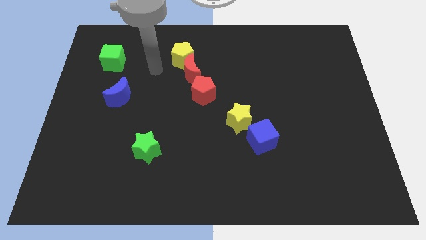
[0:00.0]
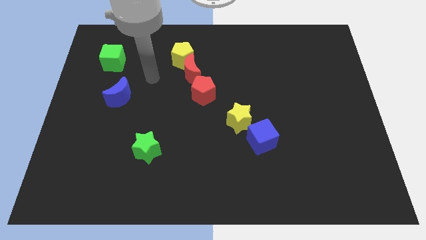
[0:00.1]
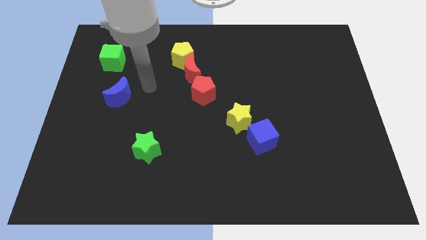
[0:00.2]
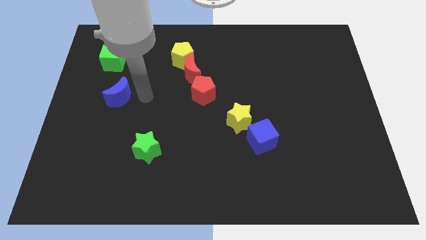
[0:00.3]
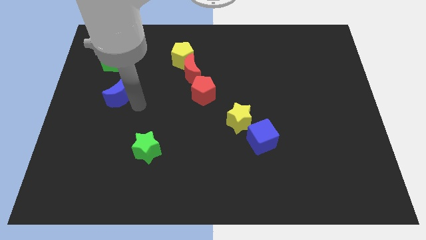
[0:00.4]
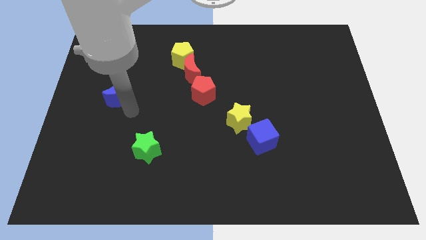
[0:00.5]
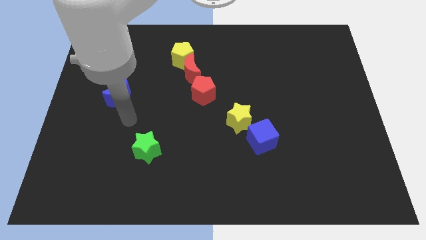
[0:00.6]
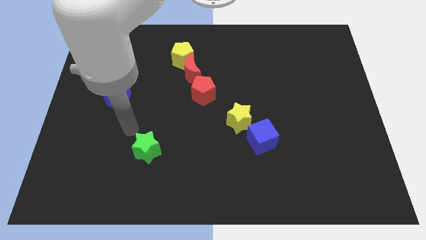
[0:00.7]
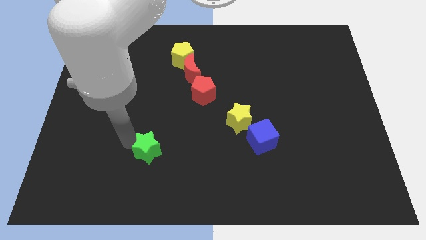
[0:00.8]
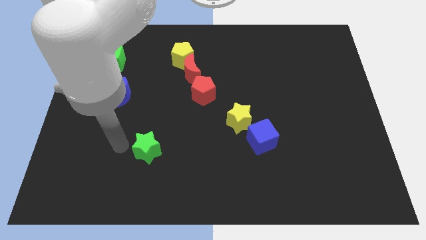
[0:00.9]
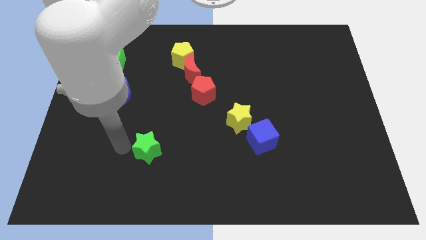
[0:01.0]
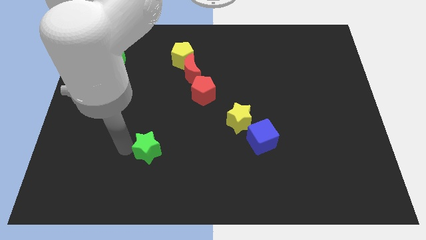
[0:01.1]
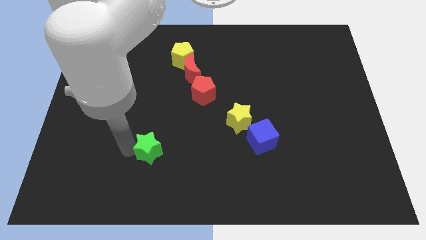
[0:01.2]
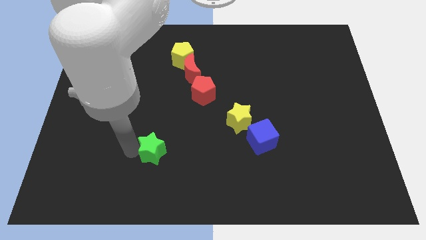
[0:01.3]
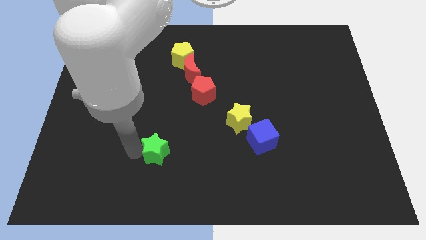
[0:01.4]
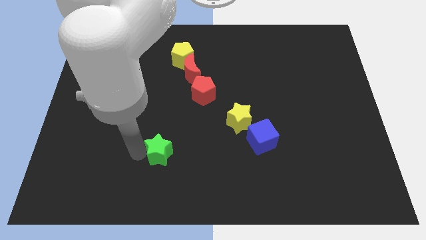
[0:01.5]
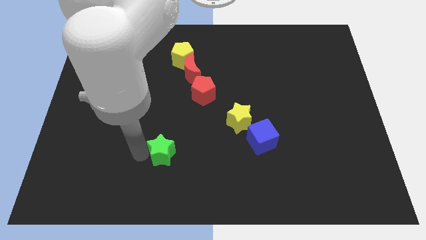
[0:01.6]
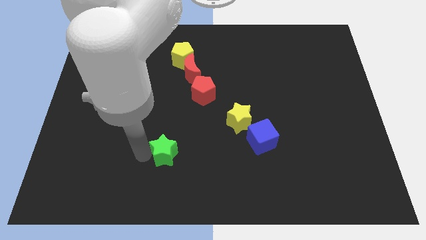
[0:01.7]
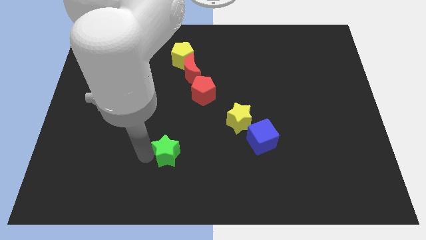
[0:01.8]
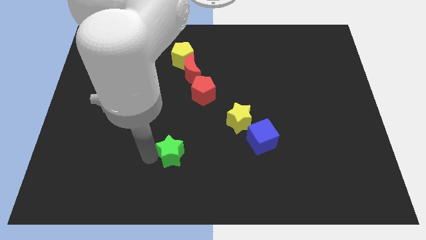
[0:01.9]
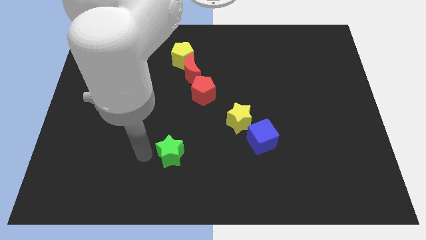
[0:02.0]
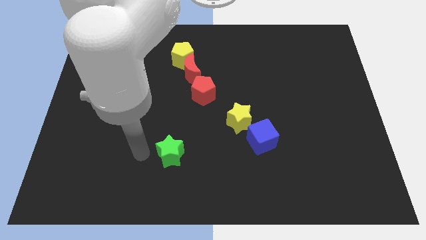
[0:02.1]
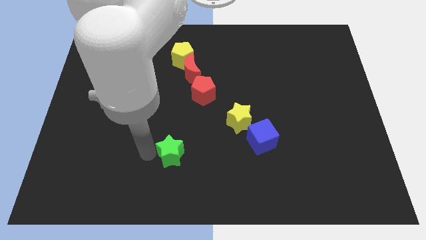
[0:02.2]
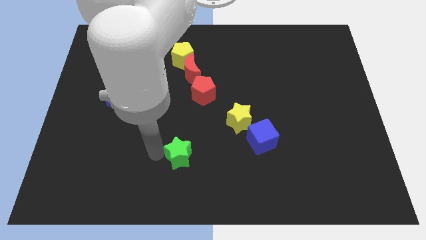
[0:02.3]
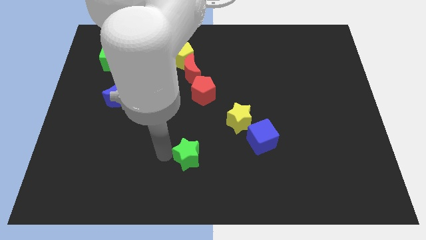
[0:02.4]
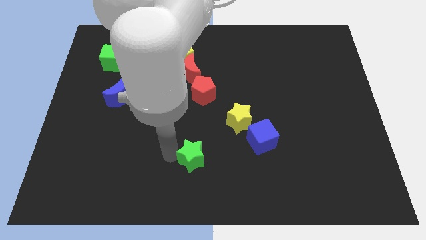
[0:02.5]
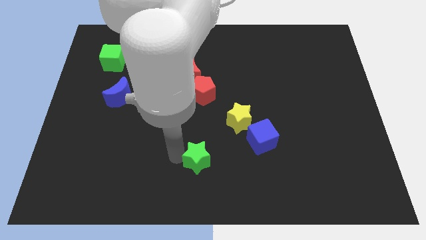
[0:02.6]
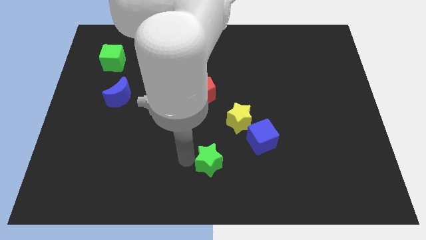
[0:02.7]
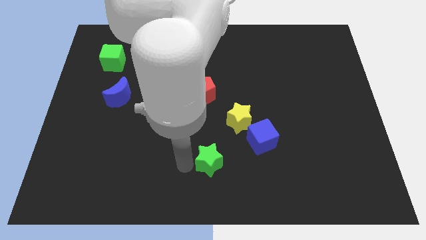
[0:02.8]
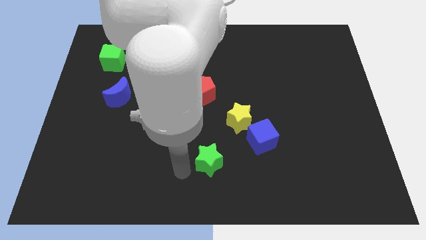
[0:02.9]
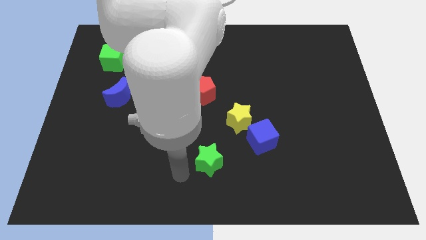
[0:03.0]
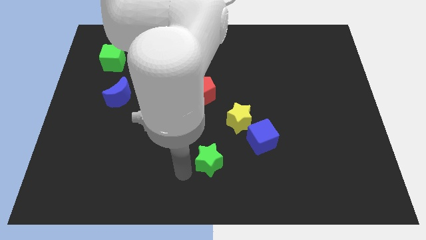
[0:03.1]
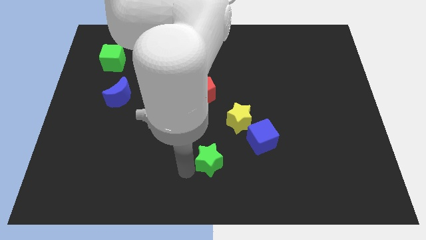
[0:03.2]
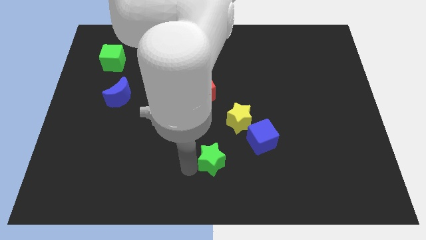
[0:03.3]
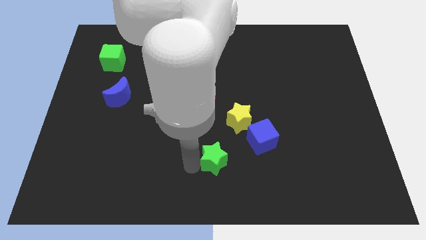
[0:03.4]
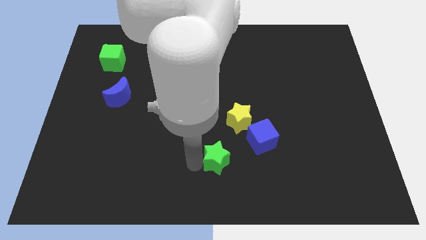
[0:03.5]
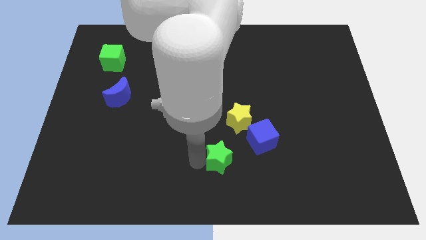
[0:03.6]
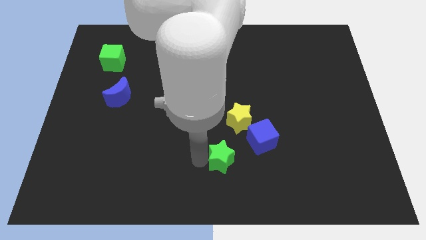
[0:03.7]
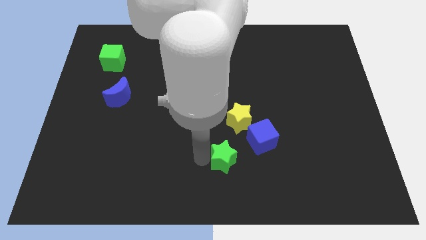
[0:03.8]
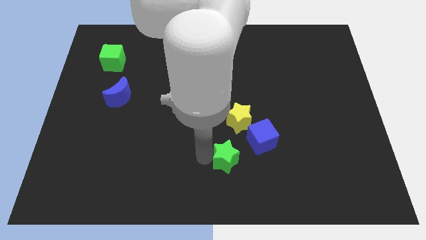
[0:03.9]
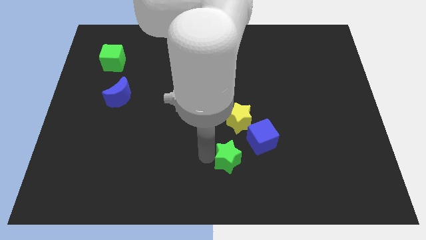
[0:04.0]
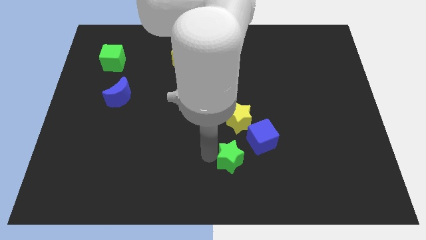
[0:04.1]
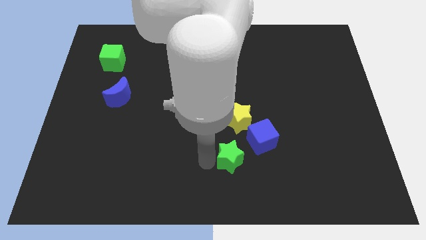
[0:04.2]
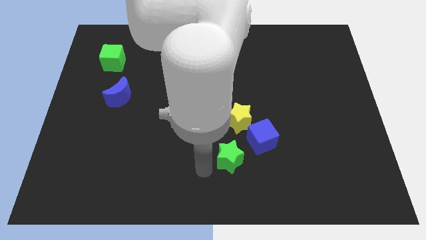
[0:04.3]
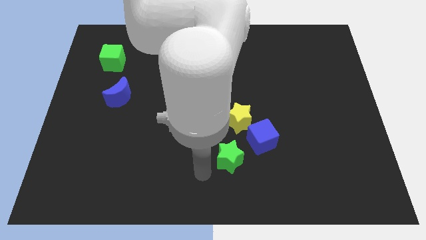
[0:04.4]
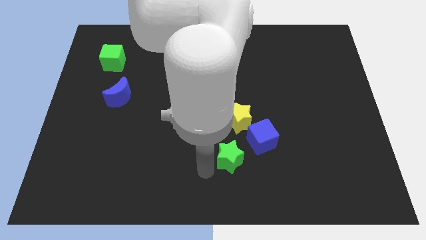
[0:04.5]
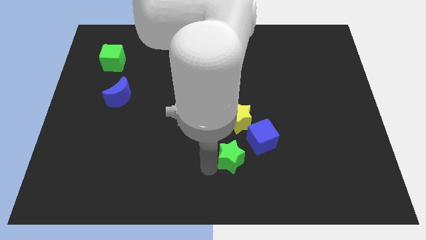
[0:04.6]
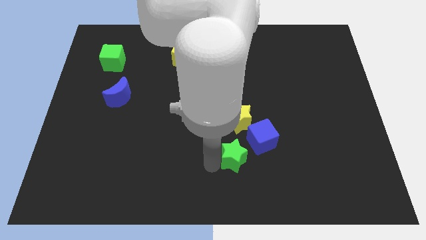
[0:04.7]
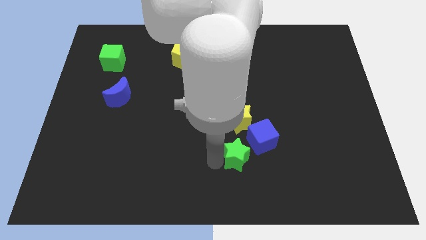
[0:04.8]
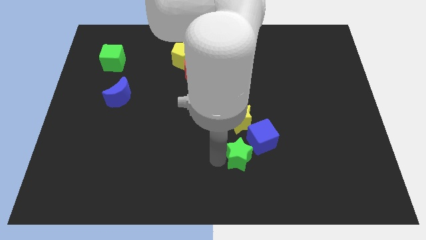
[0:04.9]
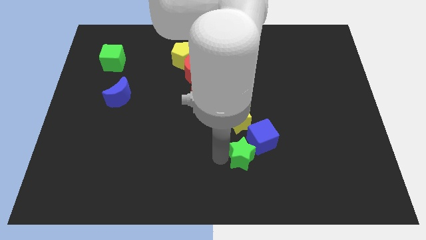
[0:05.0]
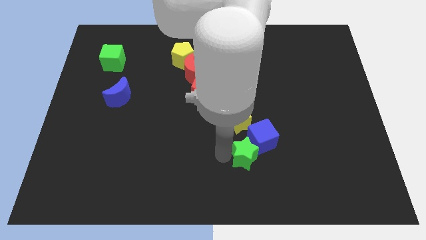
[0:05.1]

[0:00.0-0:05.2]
put the green star next to the blue cube

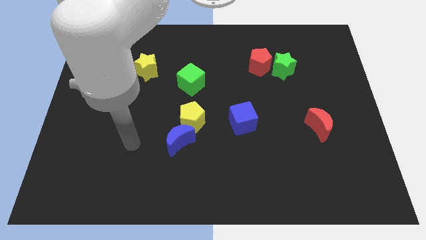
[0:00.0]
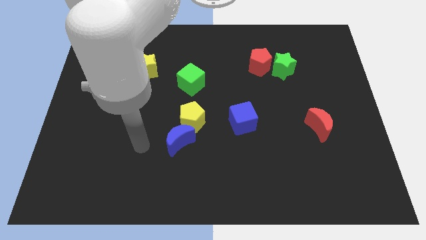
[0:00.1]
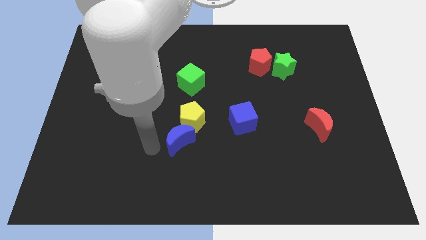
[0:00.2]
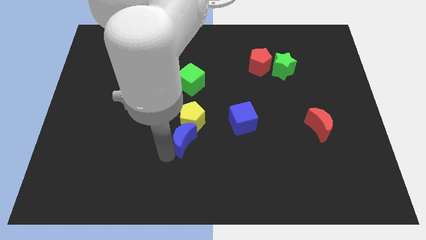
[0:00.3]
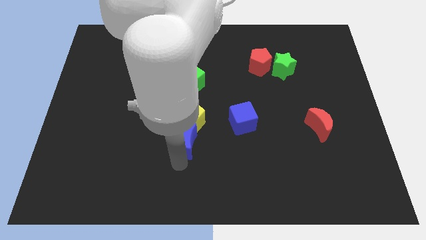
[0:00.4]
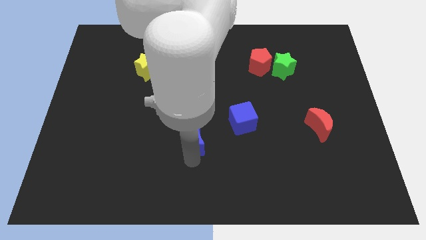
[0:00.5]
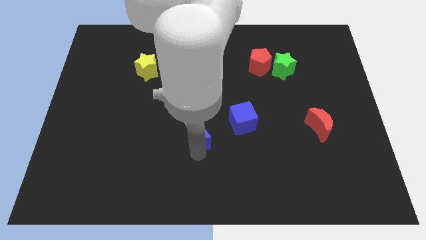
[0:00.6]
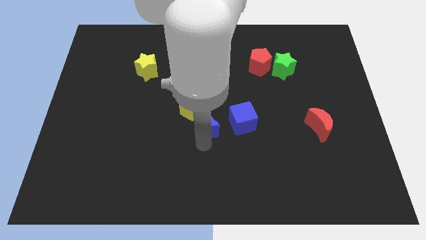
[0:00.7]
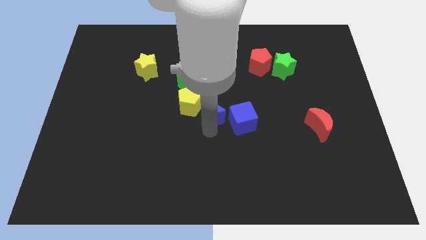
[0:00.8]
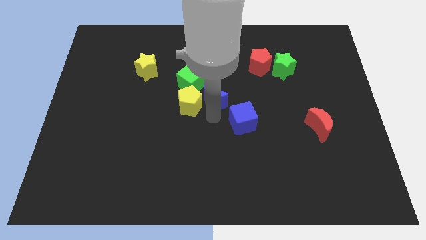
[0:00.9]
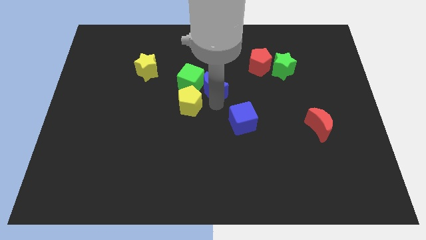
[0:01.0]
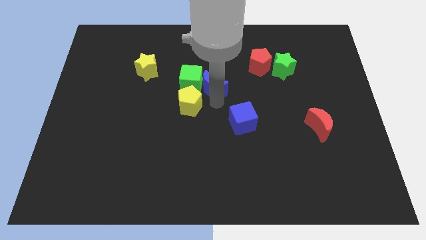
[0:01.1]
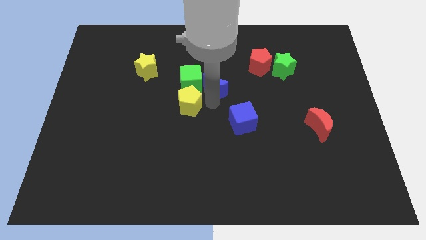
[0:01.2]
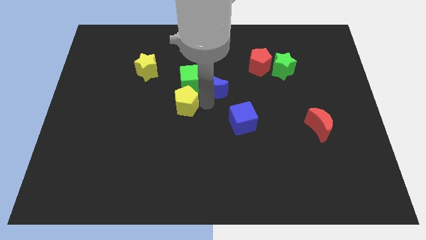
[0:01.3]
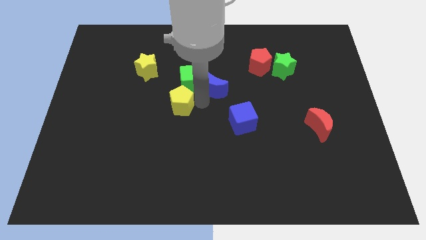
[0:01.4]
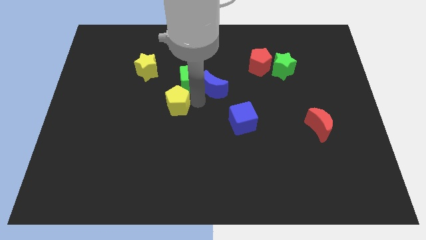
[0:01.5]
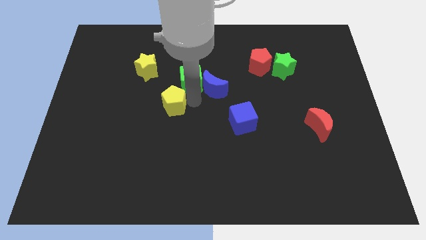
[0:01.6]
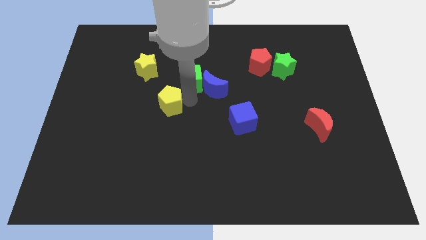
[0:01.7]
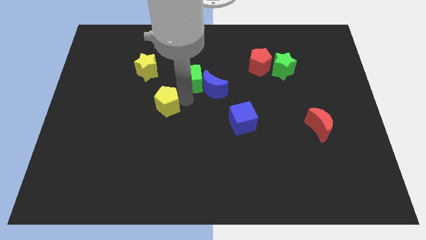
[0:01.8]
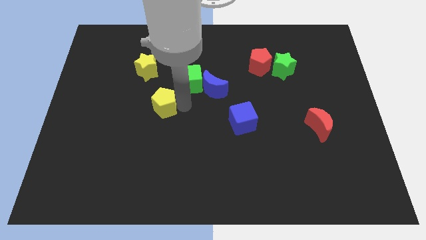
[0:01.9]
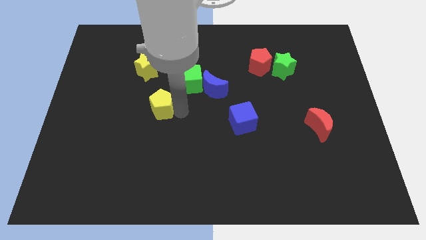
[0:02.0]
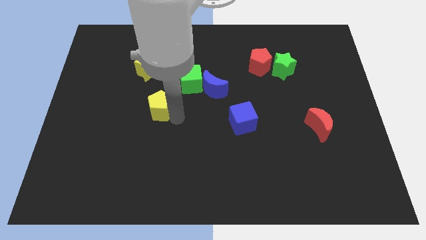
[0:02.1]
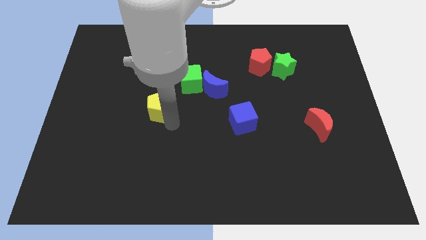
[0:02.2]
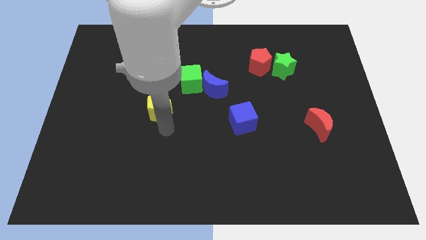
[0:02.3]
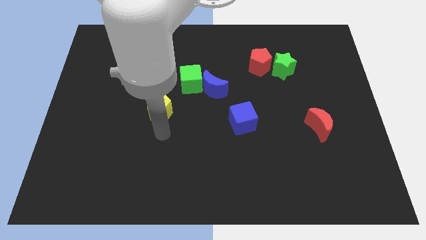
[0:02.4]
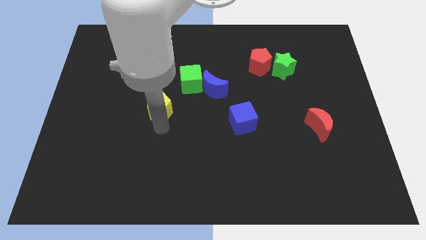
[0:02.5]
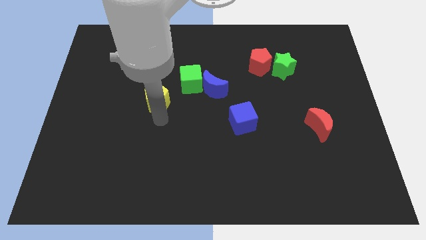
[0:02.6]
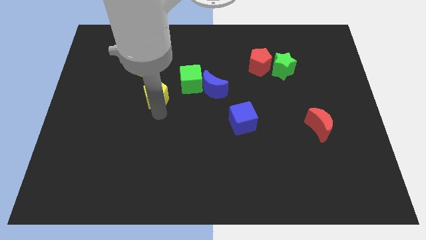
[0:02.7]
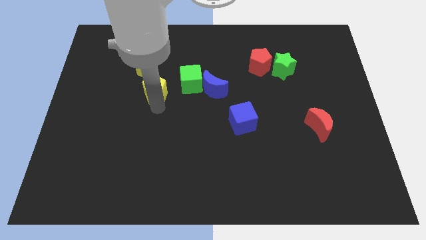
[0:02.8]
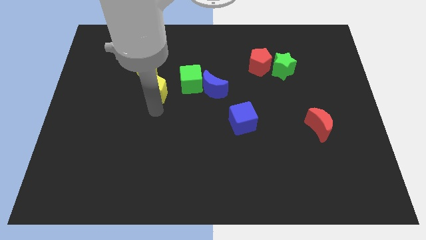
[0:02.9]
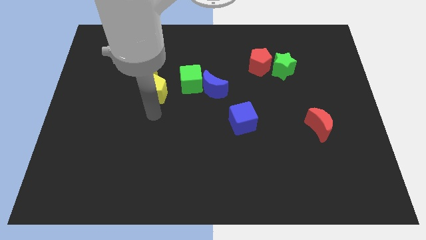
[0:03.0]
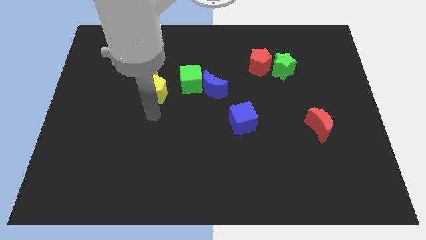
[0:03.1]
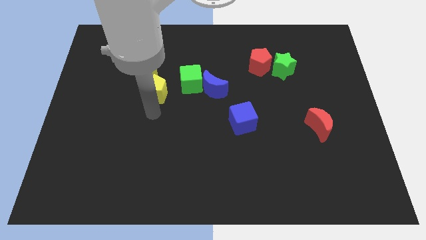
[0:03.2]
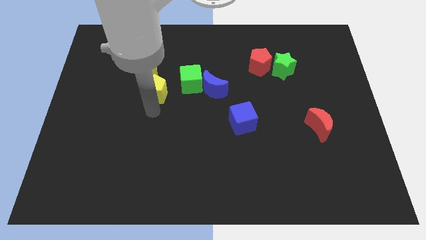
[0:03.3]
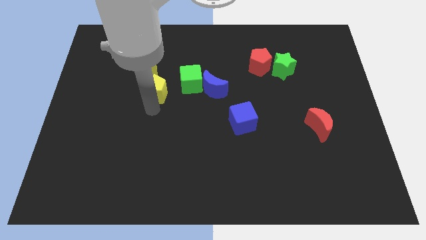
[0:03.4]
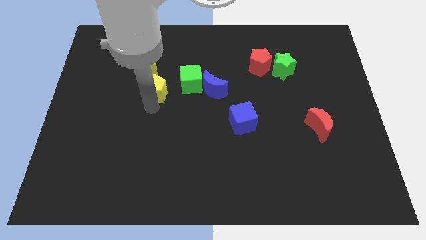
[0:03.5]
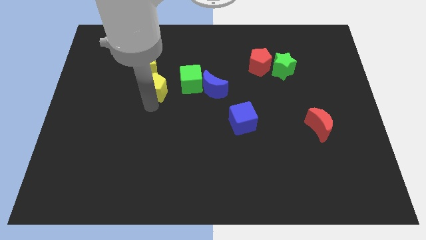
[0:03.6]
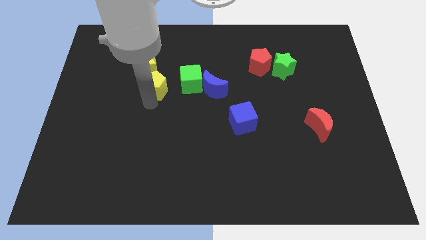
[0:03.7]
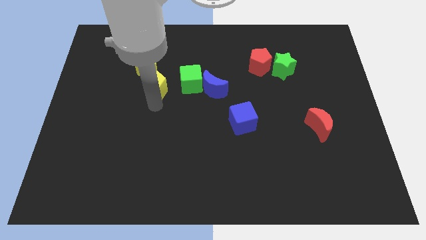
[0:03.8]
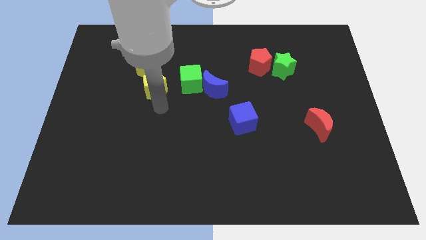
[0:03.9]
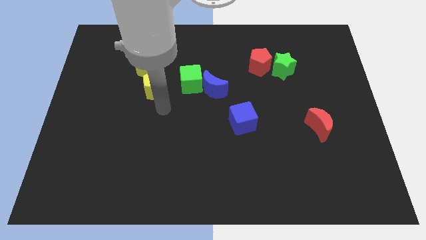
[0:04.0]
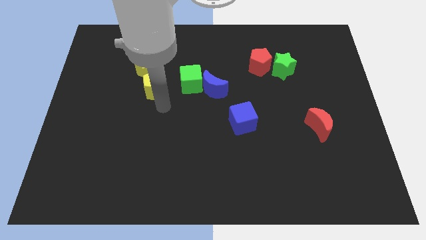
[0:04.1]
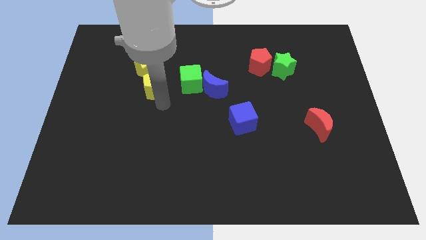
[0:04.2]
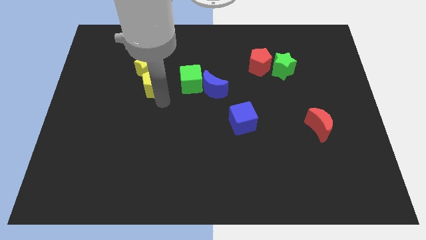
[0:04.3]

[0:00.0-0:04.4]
push the yellow pentagon to the yellow star
